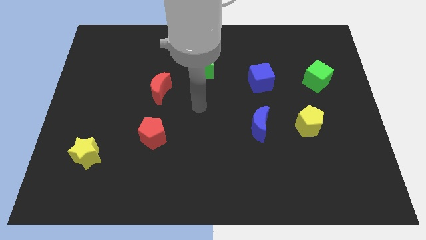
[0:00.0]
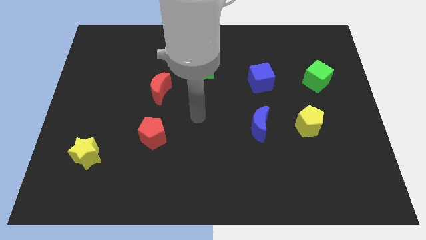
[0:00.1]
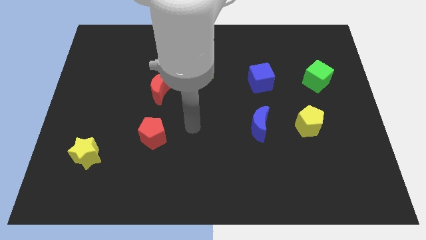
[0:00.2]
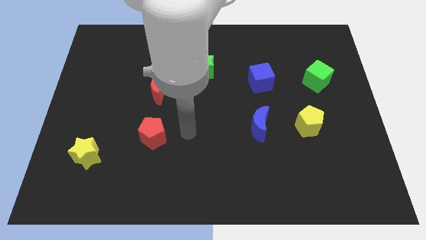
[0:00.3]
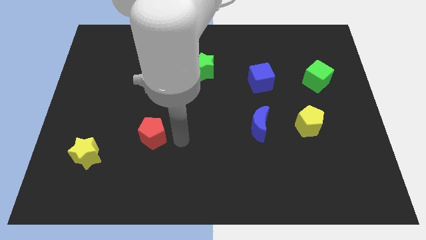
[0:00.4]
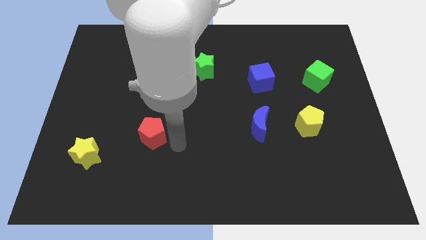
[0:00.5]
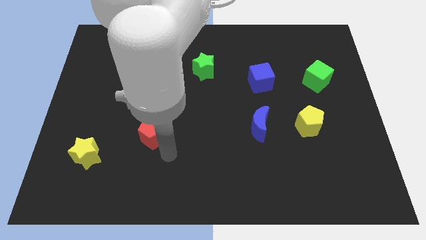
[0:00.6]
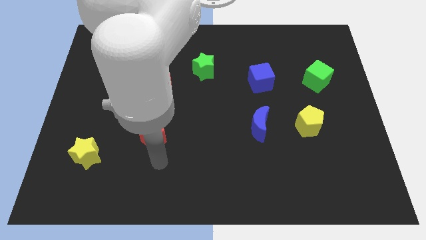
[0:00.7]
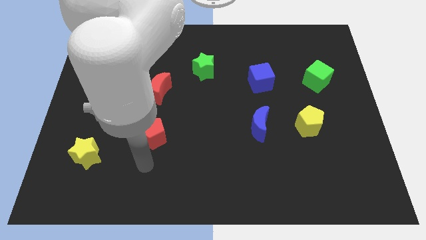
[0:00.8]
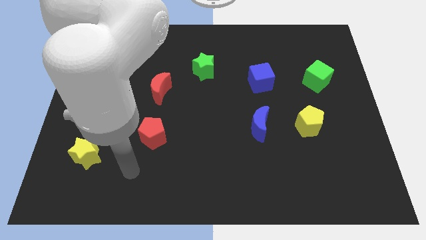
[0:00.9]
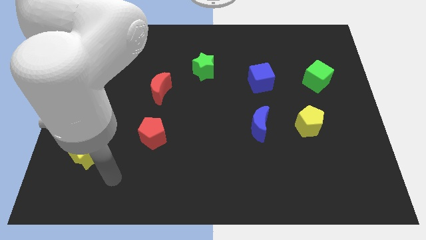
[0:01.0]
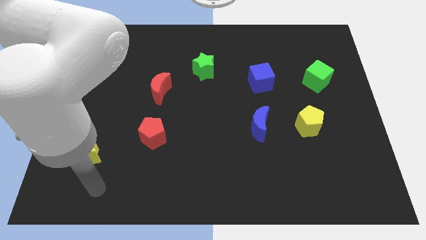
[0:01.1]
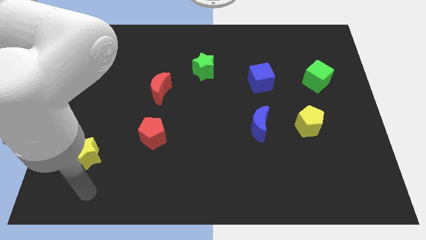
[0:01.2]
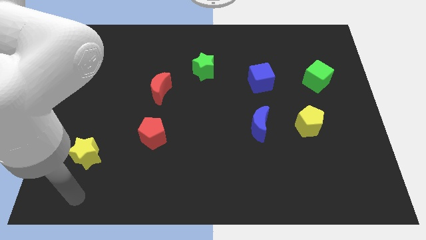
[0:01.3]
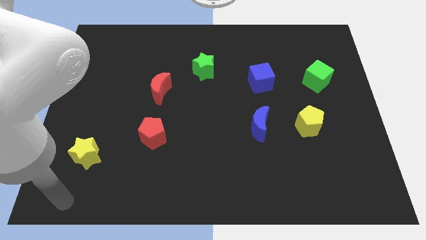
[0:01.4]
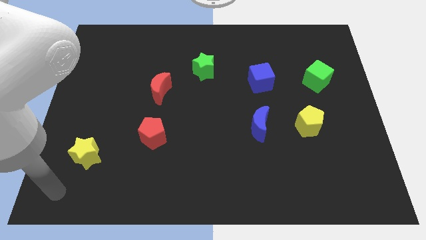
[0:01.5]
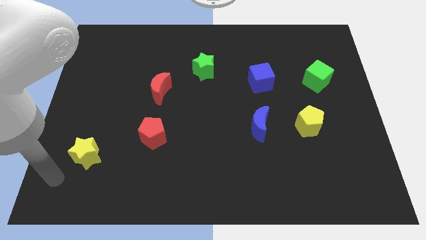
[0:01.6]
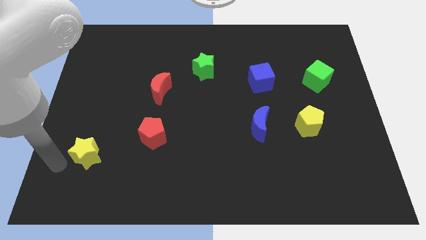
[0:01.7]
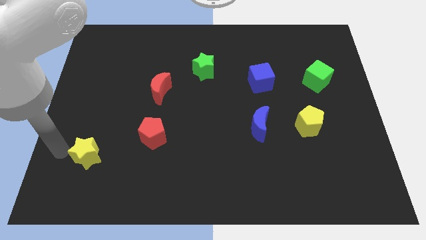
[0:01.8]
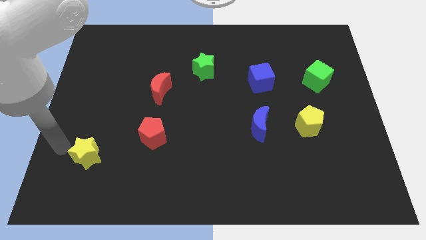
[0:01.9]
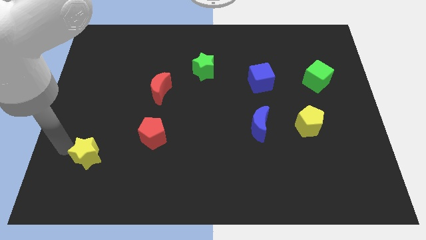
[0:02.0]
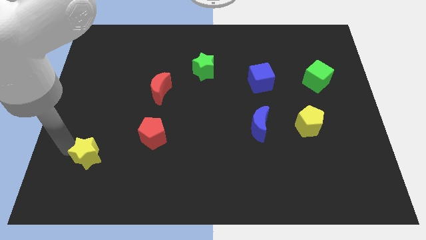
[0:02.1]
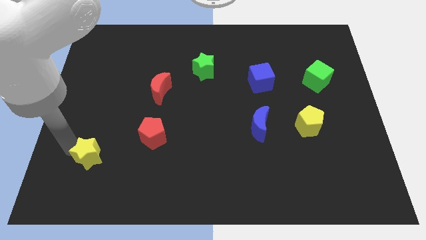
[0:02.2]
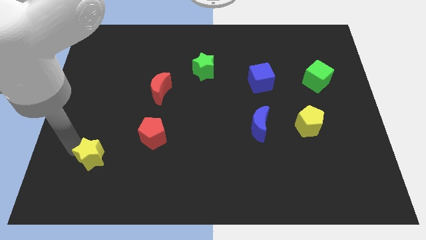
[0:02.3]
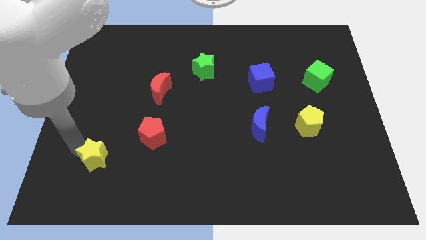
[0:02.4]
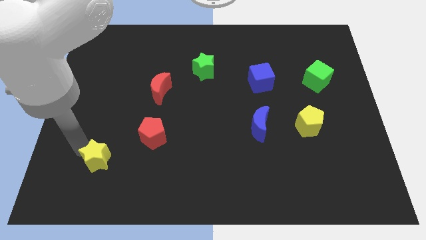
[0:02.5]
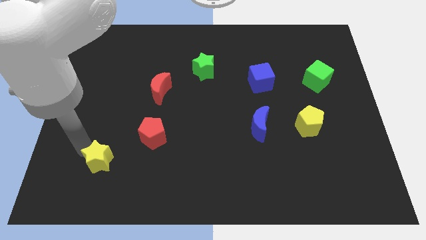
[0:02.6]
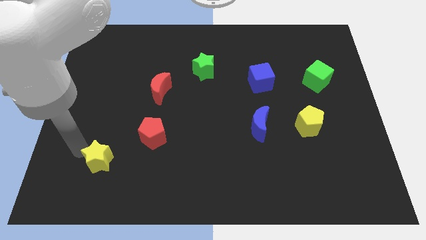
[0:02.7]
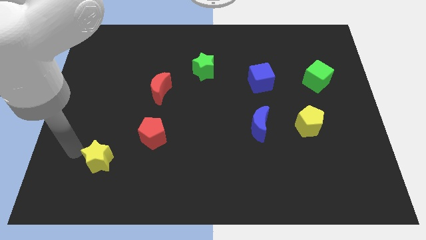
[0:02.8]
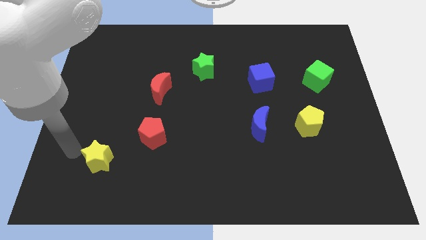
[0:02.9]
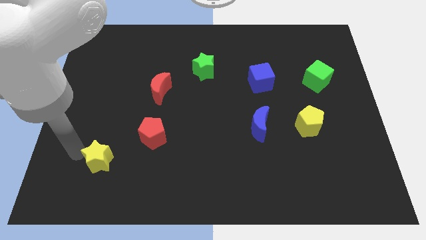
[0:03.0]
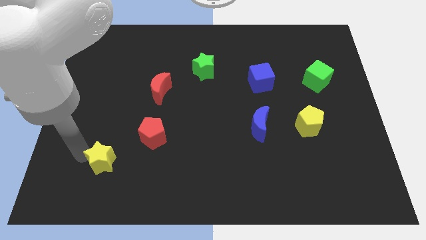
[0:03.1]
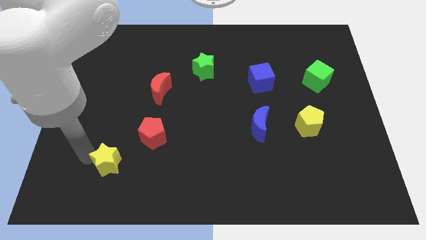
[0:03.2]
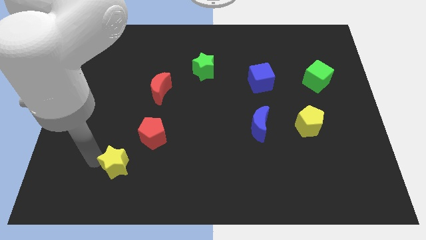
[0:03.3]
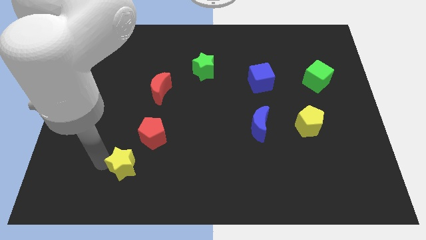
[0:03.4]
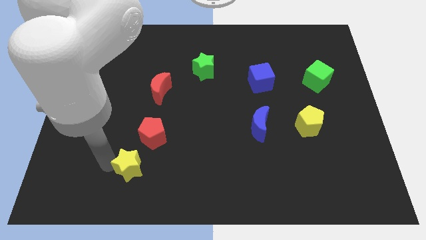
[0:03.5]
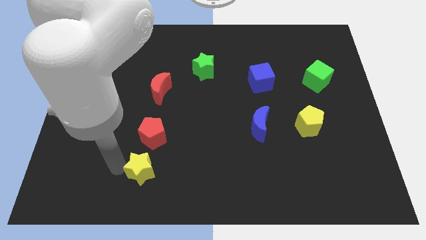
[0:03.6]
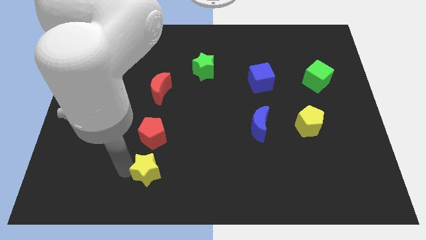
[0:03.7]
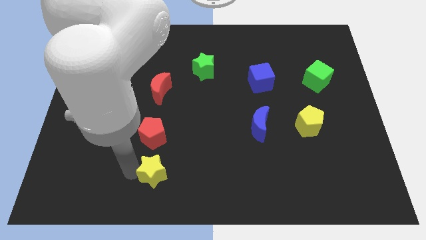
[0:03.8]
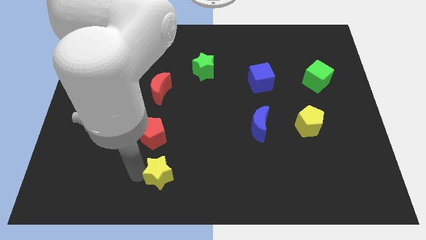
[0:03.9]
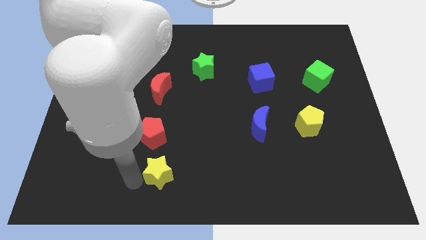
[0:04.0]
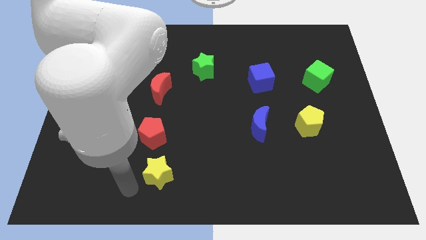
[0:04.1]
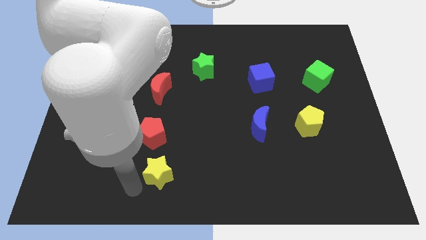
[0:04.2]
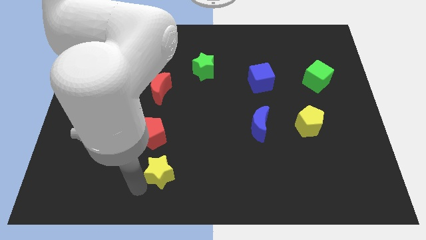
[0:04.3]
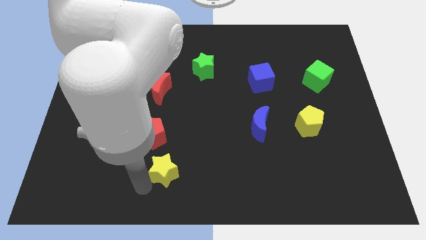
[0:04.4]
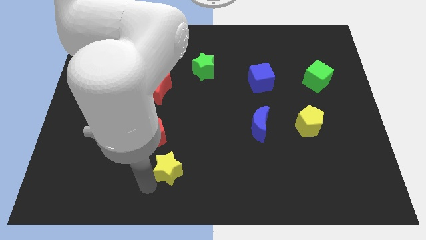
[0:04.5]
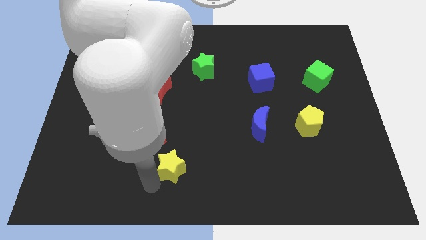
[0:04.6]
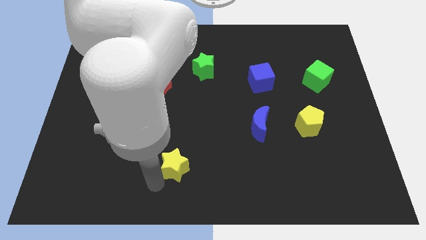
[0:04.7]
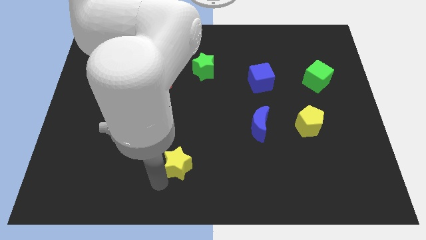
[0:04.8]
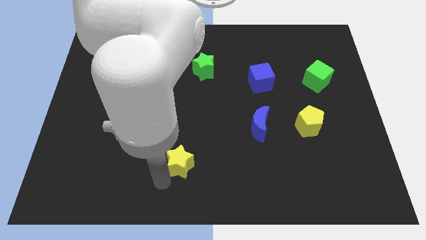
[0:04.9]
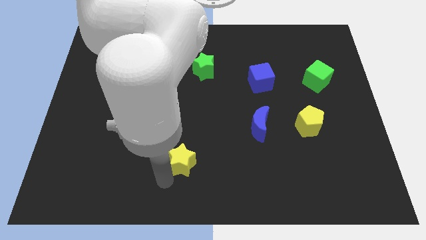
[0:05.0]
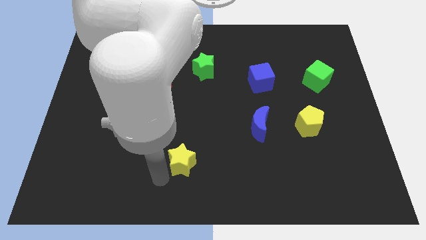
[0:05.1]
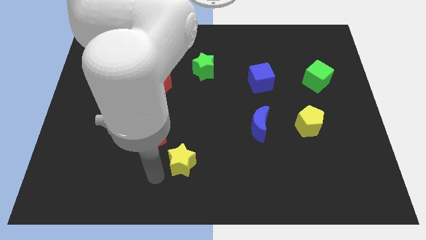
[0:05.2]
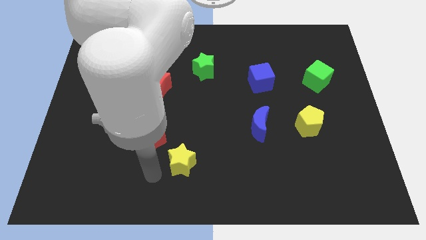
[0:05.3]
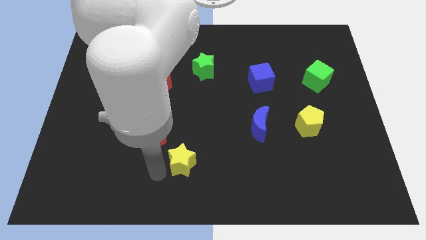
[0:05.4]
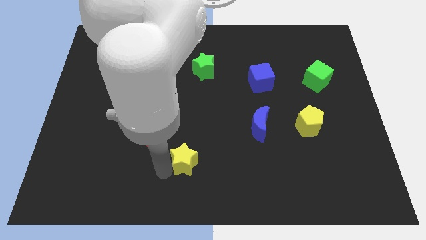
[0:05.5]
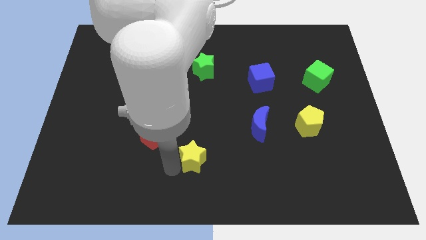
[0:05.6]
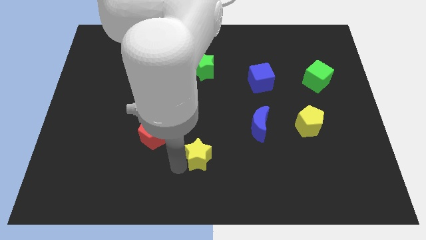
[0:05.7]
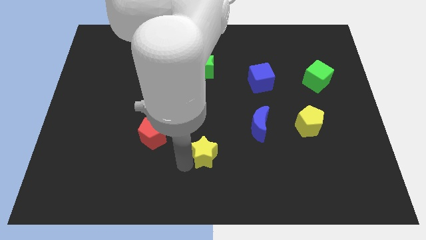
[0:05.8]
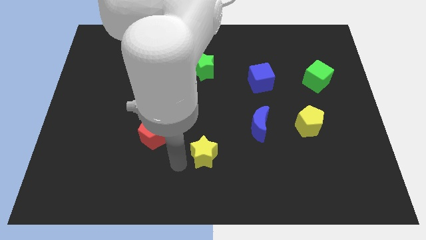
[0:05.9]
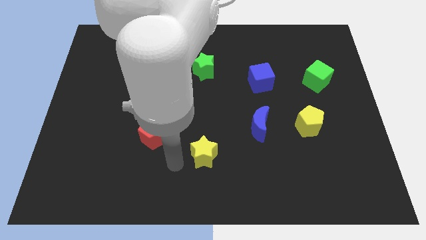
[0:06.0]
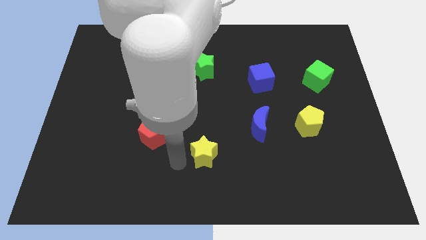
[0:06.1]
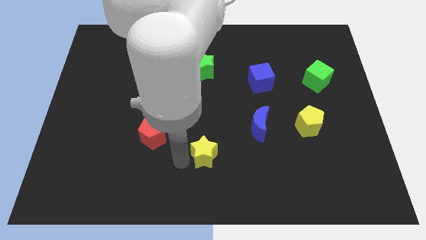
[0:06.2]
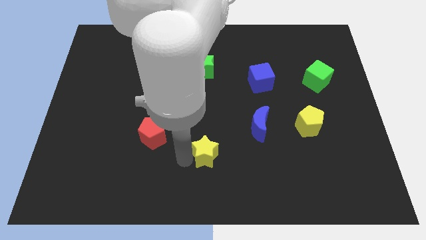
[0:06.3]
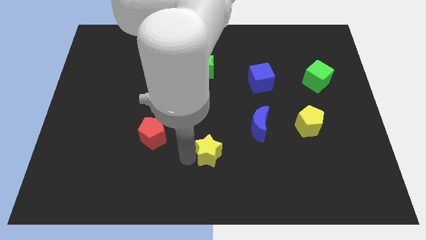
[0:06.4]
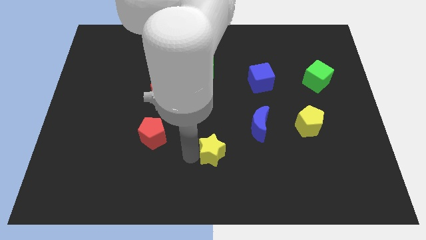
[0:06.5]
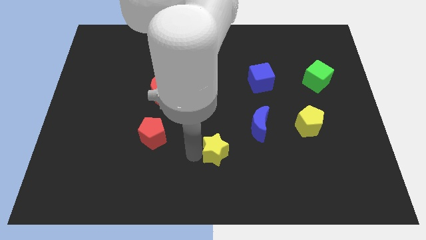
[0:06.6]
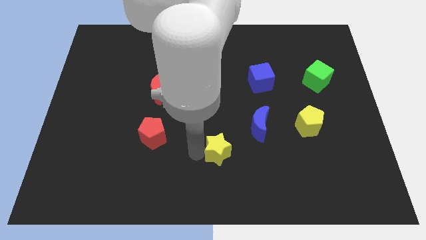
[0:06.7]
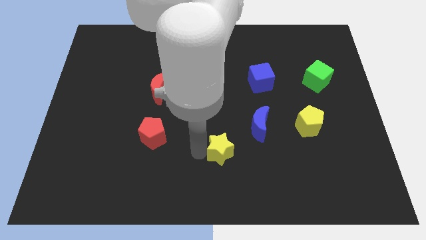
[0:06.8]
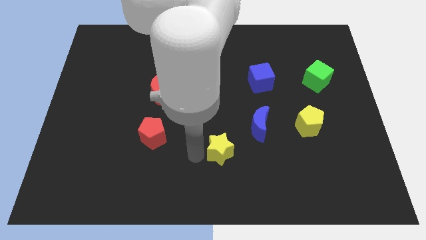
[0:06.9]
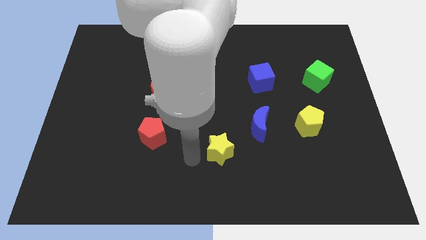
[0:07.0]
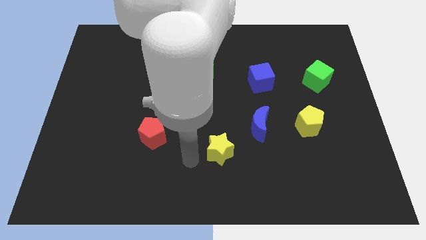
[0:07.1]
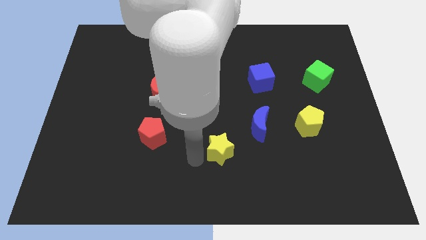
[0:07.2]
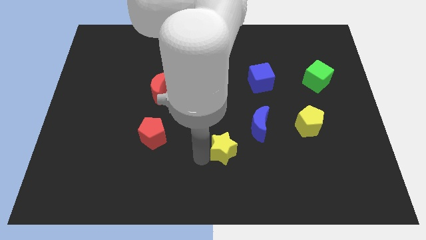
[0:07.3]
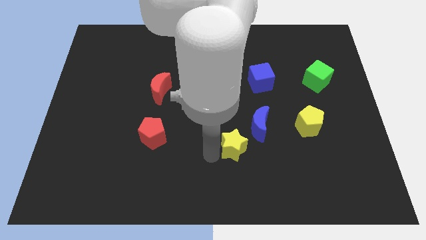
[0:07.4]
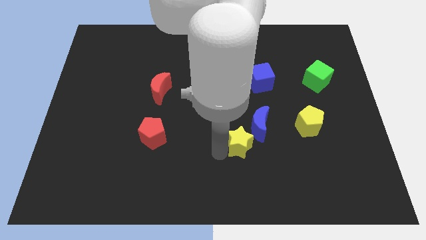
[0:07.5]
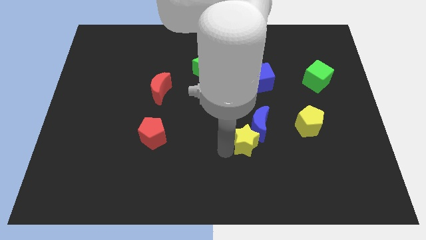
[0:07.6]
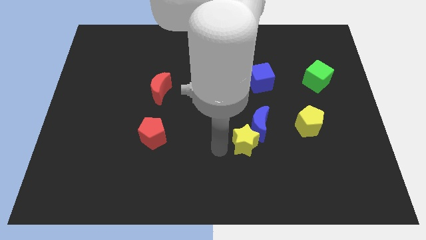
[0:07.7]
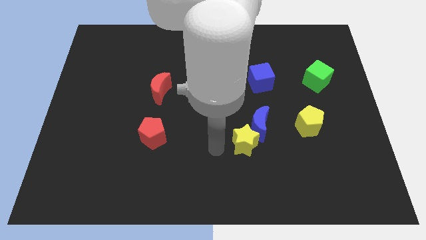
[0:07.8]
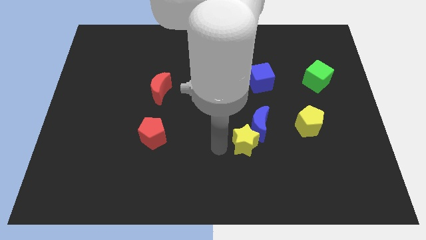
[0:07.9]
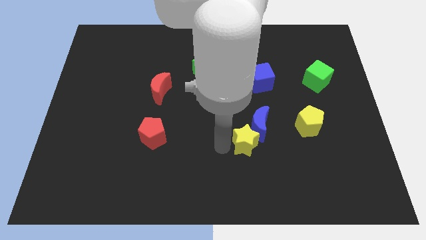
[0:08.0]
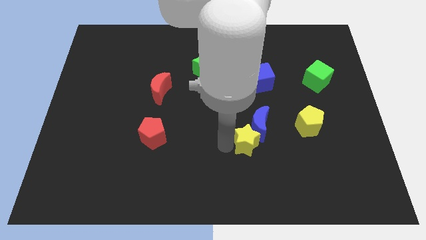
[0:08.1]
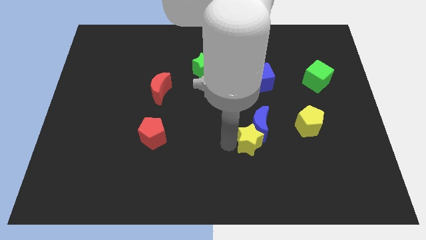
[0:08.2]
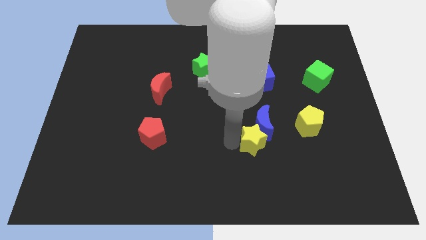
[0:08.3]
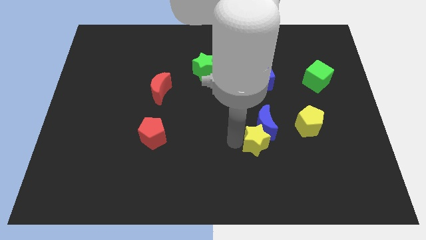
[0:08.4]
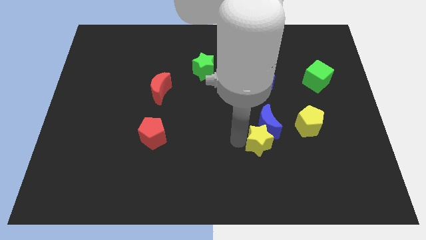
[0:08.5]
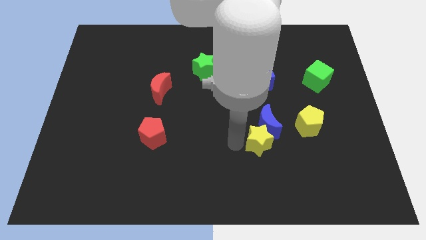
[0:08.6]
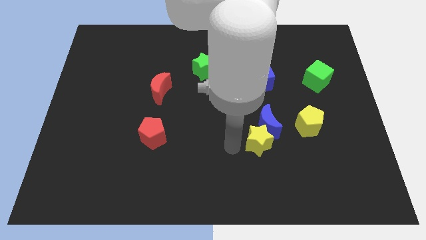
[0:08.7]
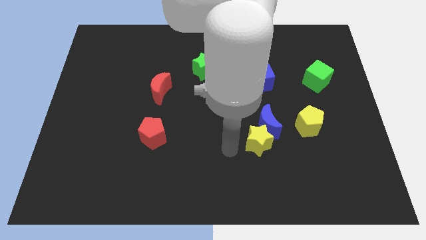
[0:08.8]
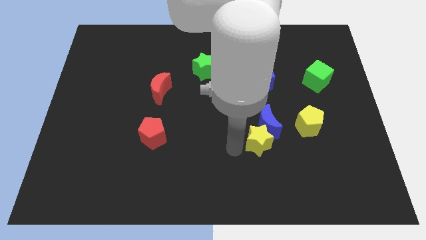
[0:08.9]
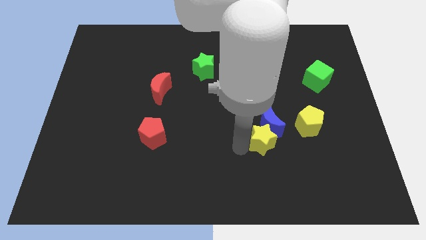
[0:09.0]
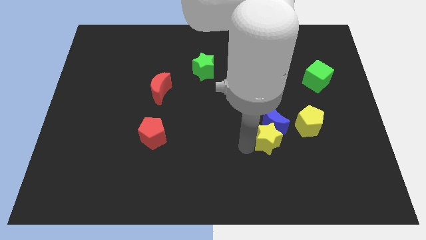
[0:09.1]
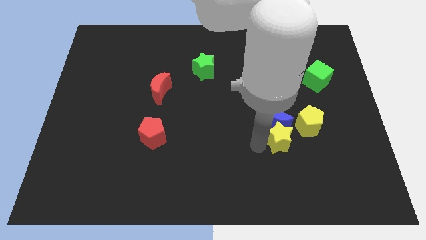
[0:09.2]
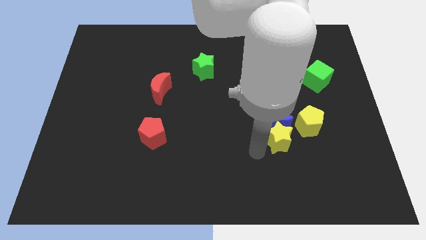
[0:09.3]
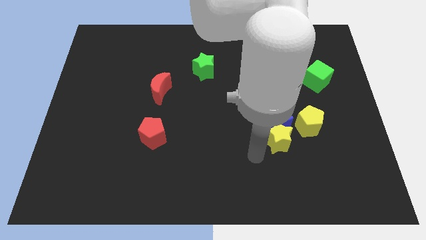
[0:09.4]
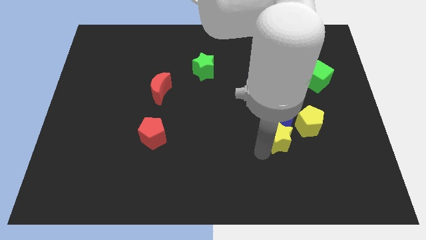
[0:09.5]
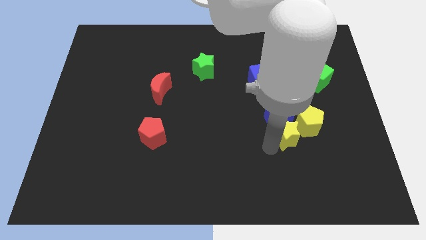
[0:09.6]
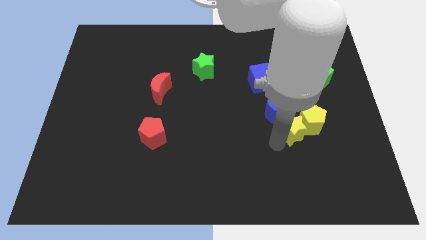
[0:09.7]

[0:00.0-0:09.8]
slide the yellow star towards the yellow pentagon
